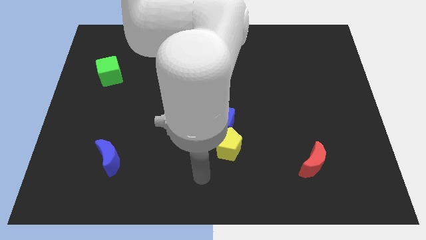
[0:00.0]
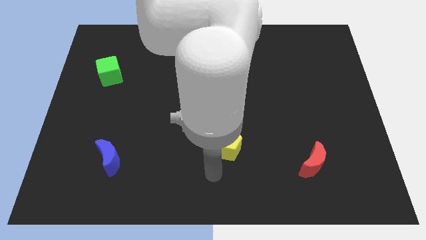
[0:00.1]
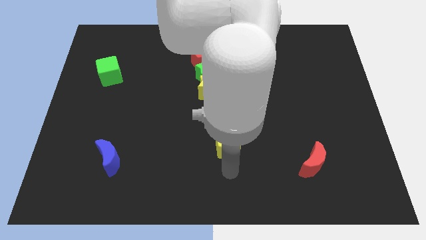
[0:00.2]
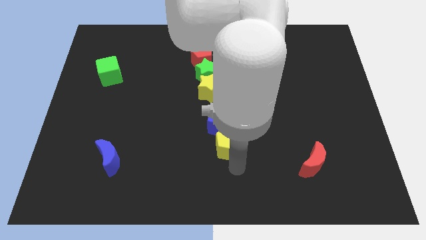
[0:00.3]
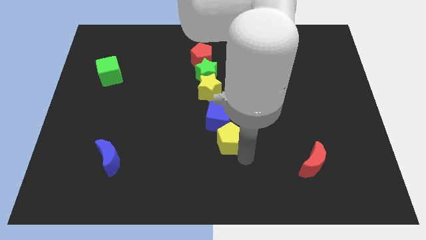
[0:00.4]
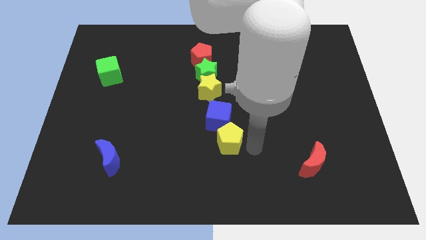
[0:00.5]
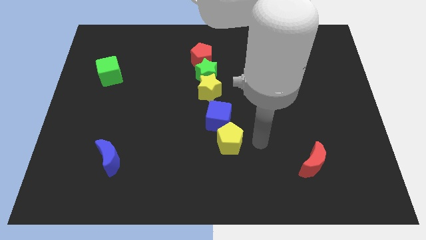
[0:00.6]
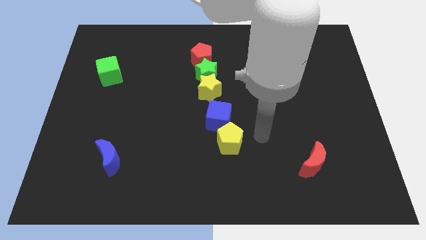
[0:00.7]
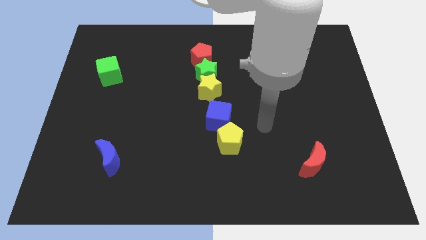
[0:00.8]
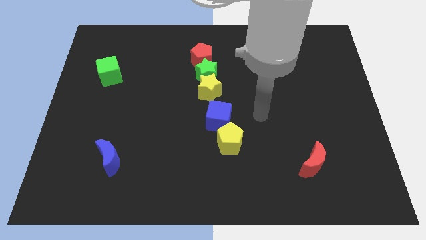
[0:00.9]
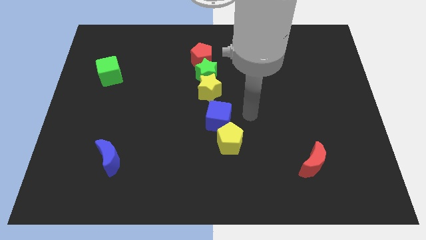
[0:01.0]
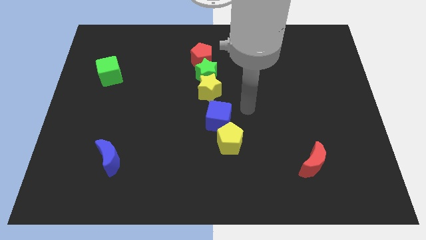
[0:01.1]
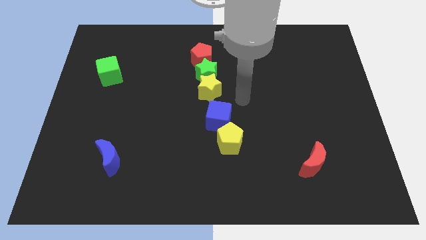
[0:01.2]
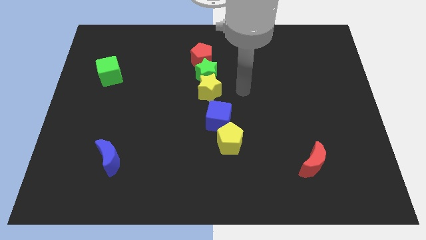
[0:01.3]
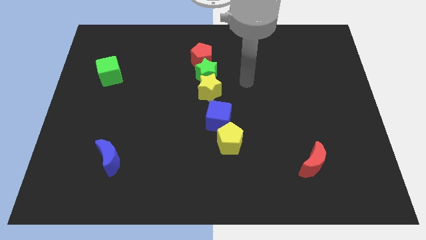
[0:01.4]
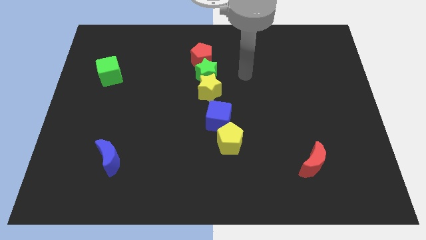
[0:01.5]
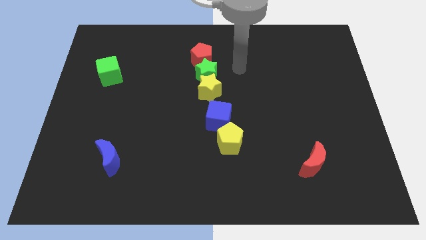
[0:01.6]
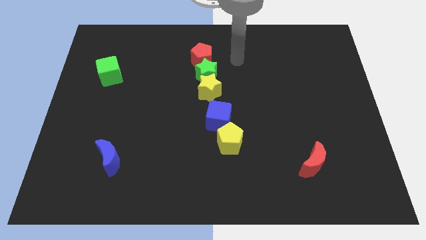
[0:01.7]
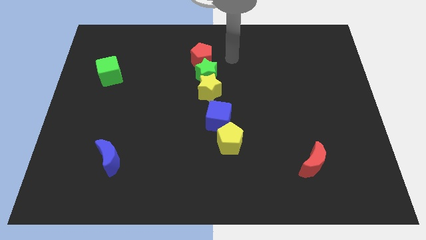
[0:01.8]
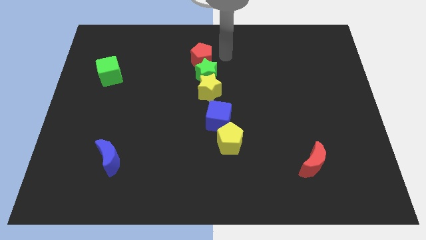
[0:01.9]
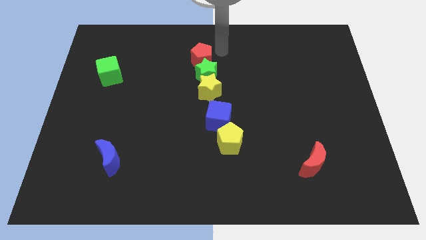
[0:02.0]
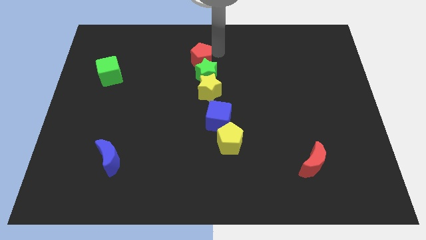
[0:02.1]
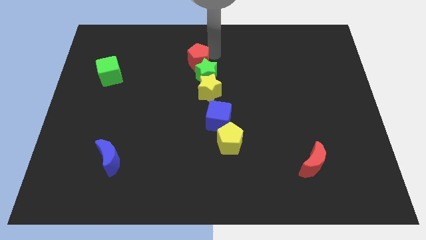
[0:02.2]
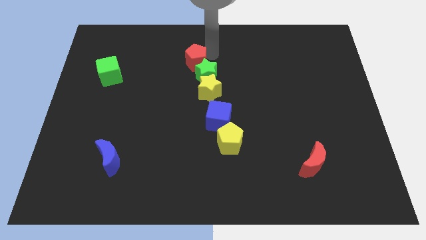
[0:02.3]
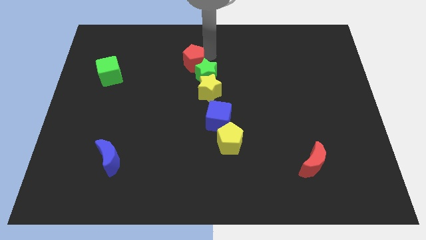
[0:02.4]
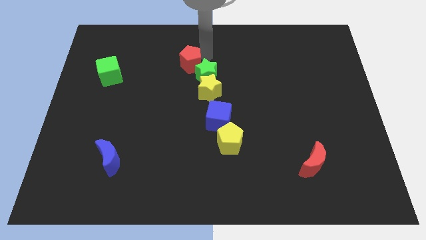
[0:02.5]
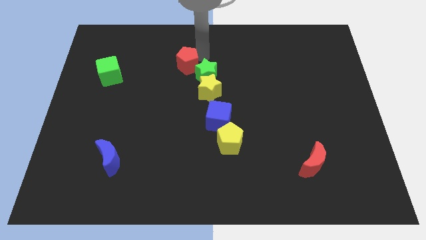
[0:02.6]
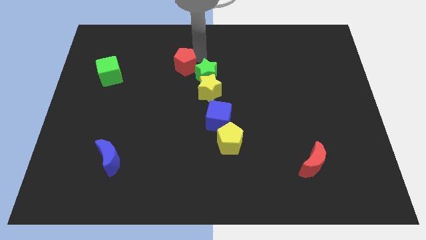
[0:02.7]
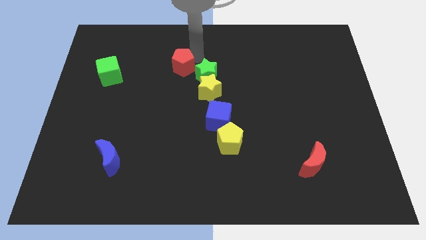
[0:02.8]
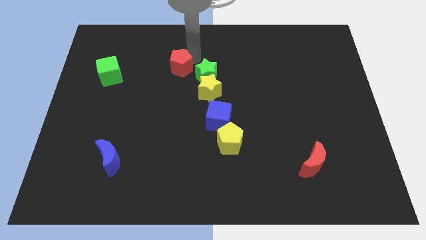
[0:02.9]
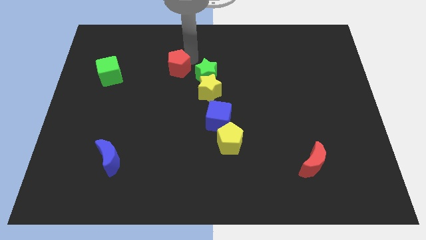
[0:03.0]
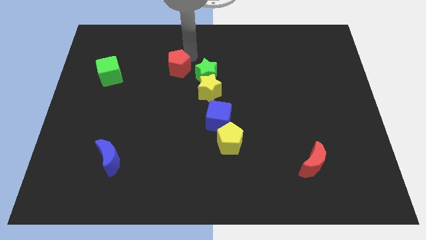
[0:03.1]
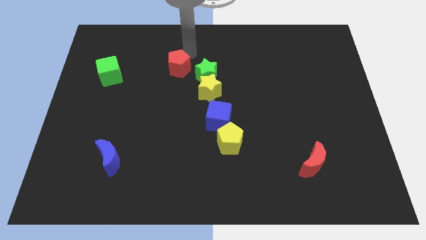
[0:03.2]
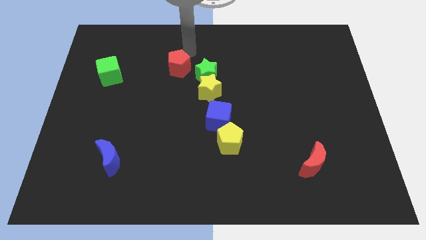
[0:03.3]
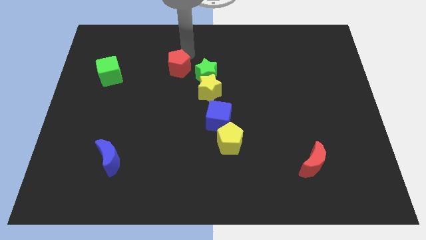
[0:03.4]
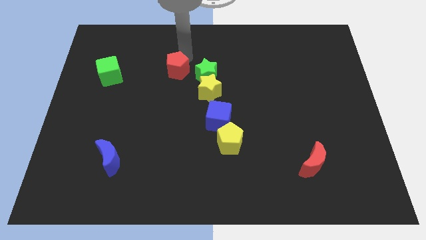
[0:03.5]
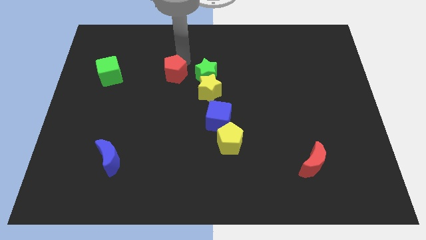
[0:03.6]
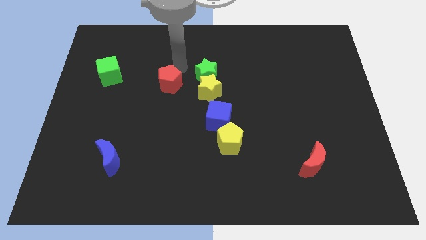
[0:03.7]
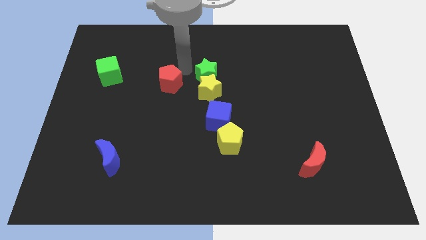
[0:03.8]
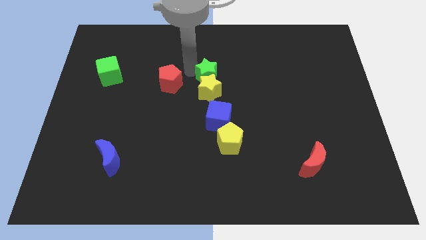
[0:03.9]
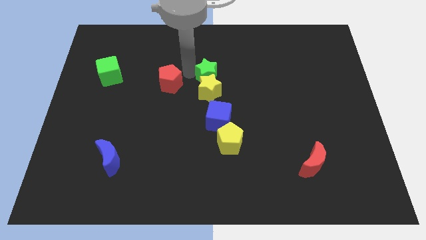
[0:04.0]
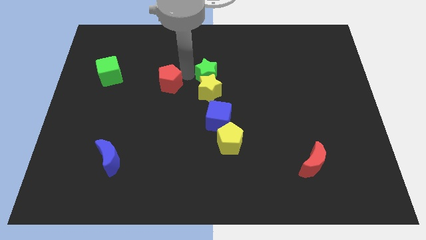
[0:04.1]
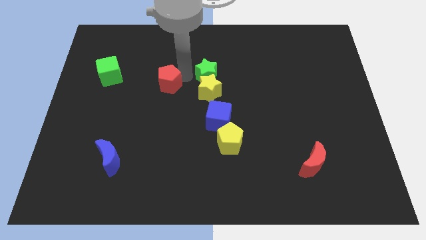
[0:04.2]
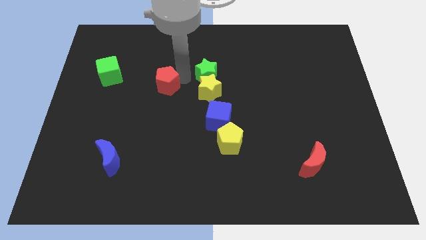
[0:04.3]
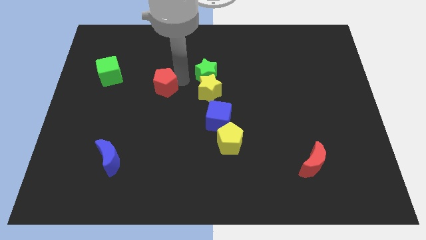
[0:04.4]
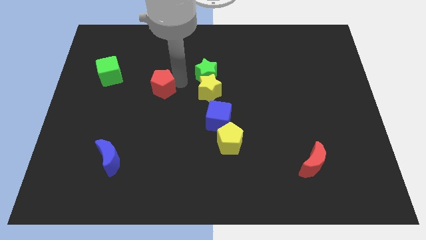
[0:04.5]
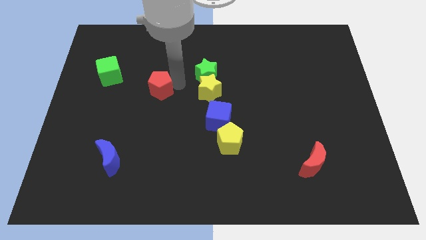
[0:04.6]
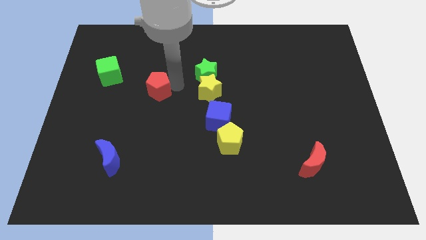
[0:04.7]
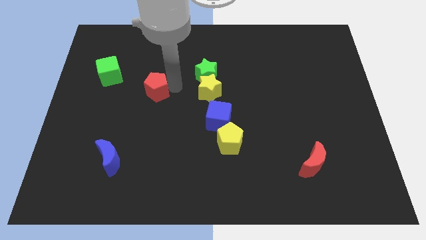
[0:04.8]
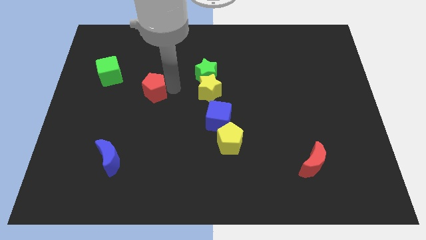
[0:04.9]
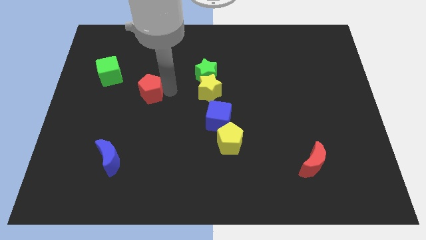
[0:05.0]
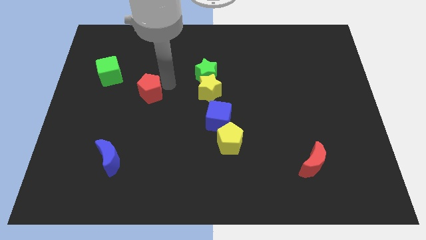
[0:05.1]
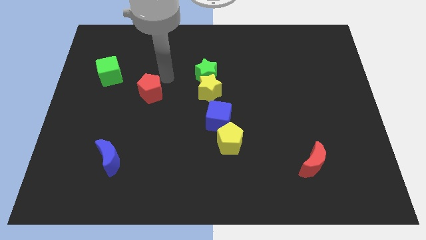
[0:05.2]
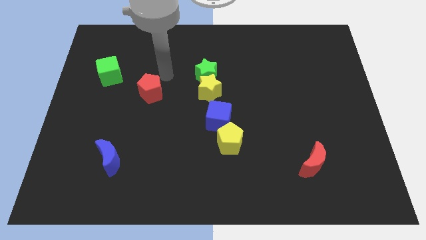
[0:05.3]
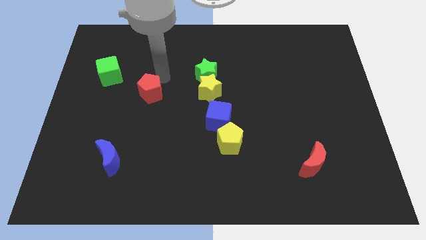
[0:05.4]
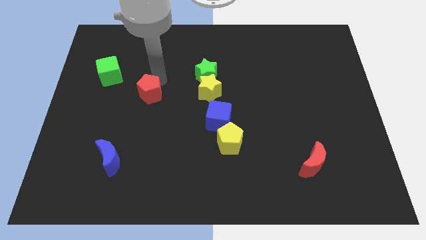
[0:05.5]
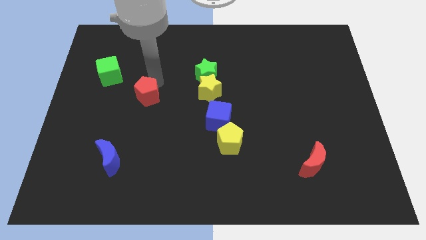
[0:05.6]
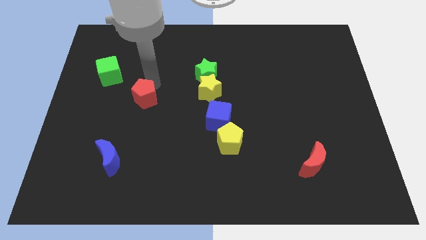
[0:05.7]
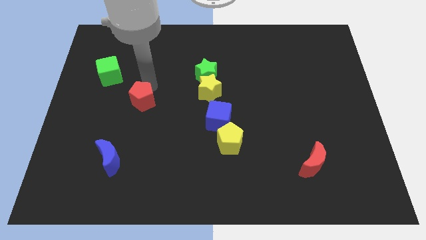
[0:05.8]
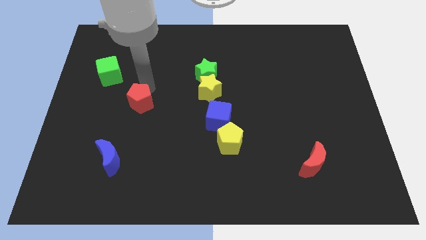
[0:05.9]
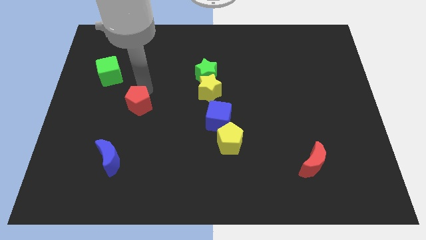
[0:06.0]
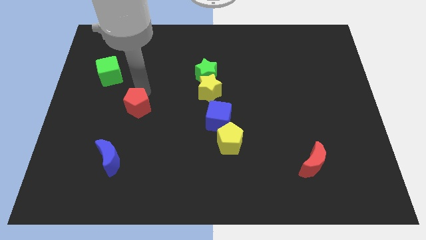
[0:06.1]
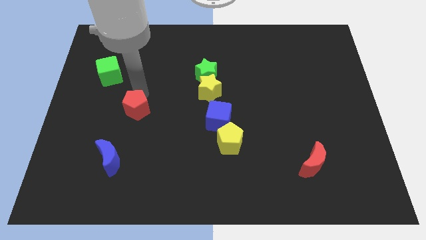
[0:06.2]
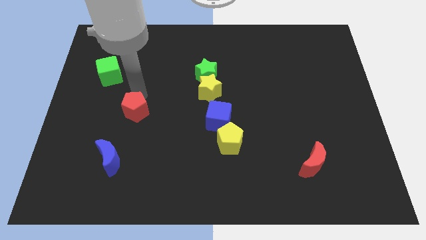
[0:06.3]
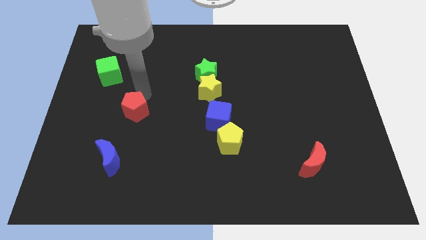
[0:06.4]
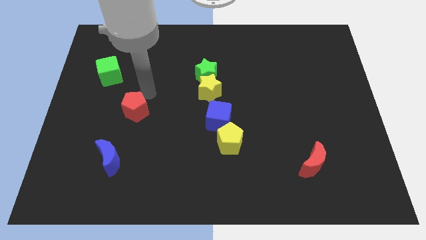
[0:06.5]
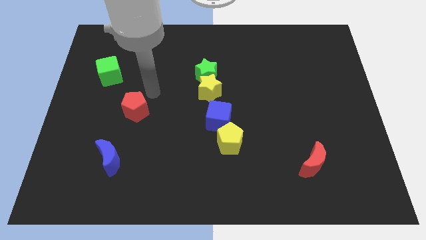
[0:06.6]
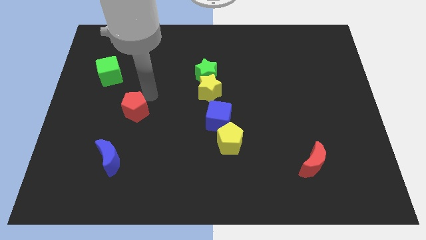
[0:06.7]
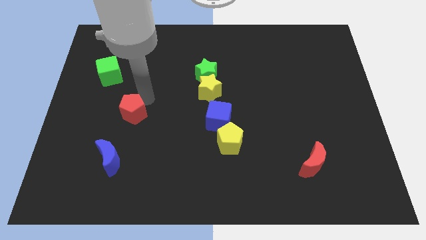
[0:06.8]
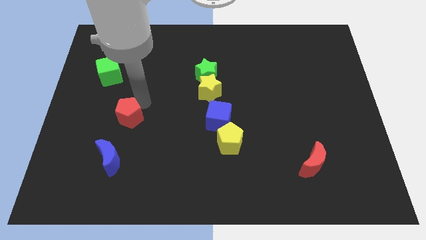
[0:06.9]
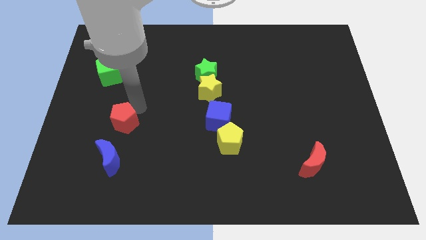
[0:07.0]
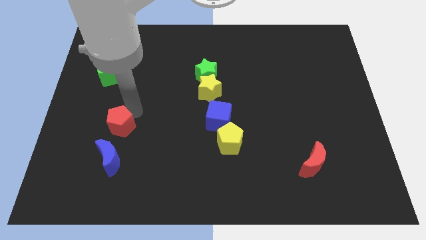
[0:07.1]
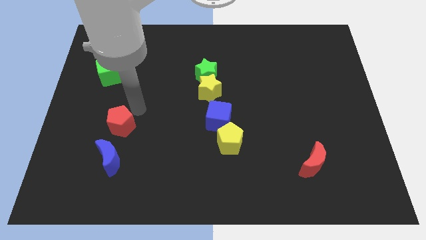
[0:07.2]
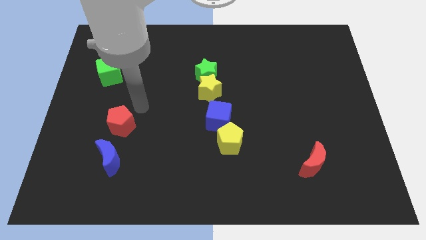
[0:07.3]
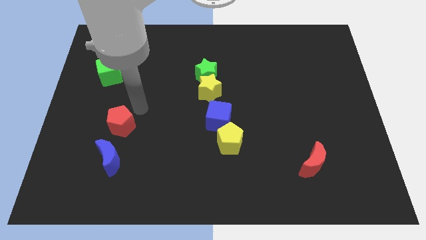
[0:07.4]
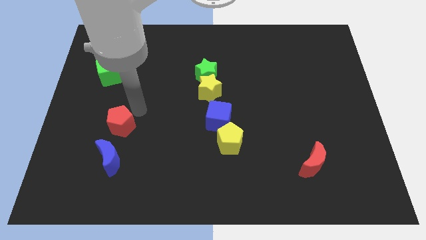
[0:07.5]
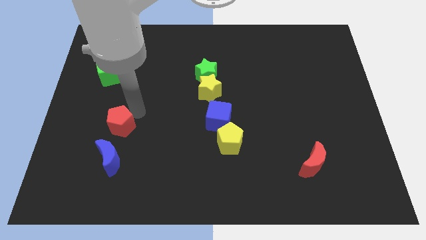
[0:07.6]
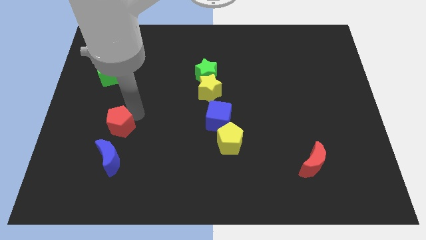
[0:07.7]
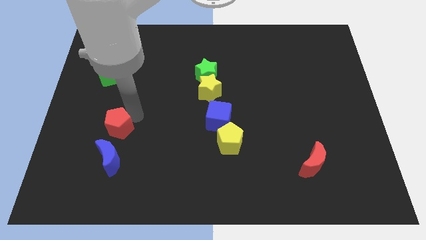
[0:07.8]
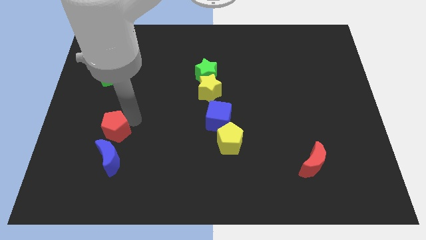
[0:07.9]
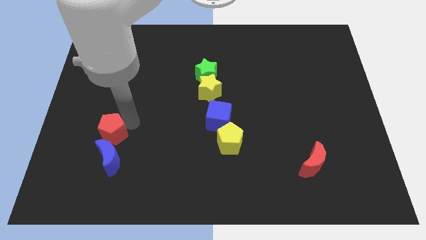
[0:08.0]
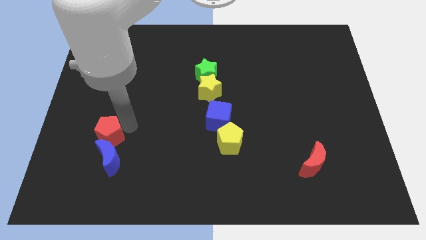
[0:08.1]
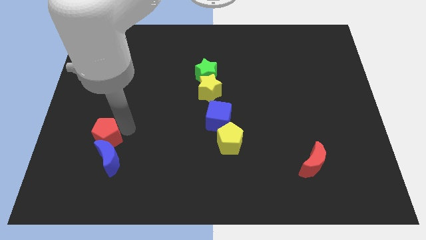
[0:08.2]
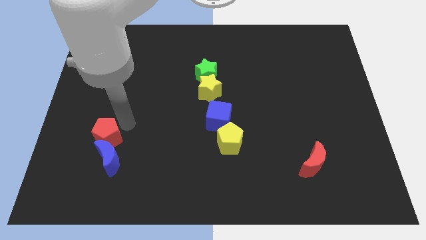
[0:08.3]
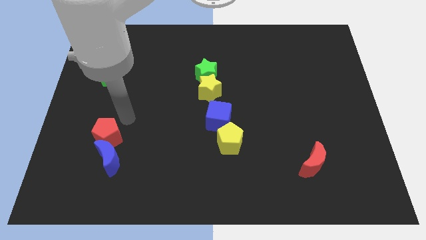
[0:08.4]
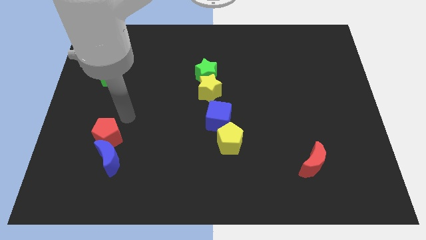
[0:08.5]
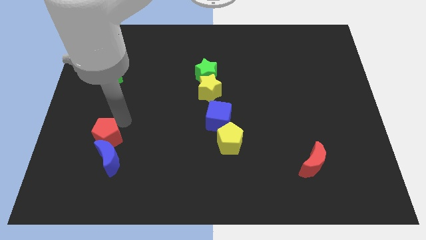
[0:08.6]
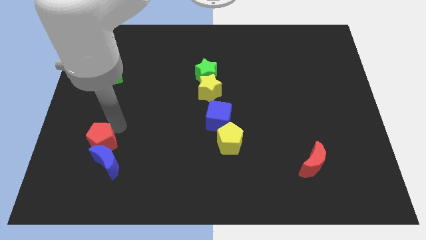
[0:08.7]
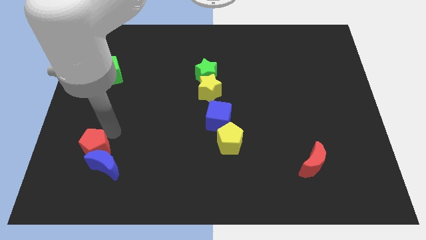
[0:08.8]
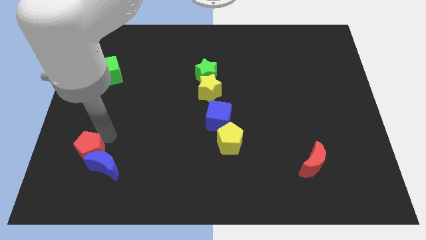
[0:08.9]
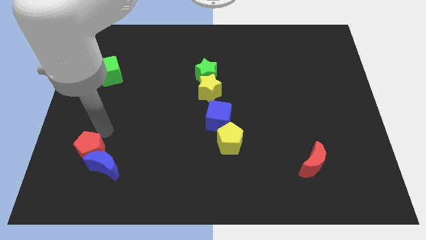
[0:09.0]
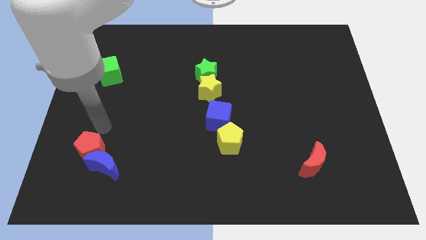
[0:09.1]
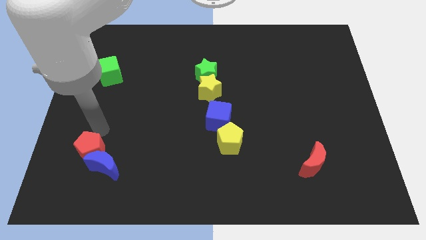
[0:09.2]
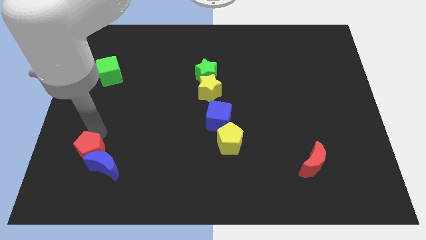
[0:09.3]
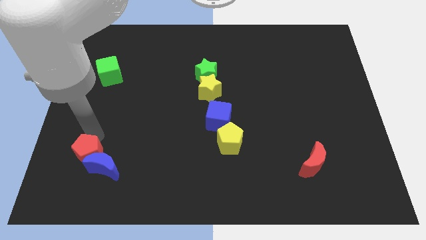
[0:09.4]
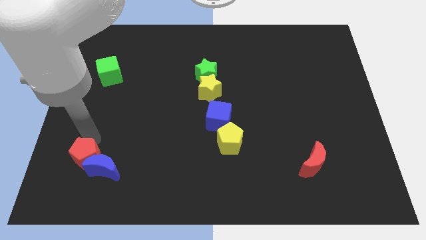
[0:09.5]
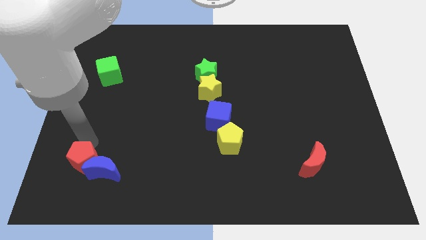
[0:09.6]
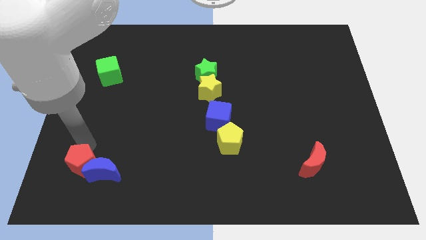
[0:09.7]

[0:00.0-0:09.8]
push the red pentagon to the bottom left side of the blue moon
